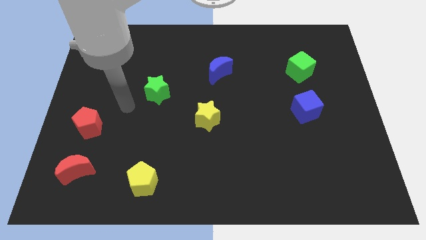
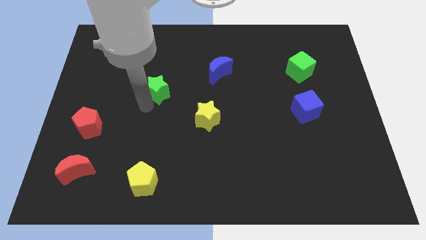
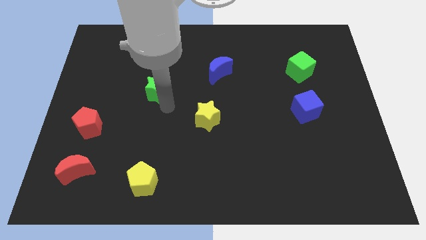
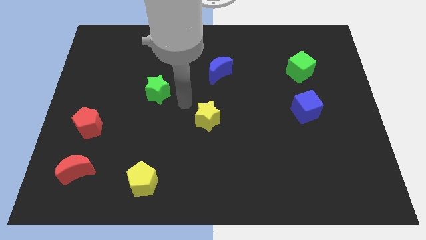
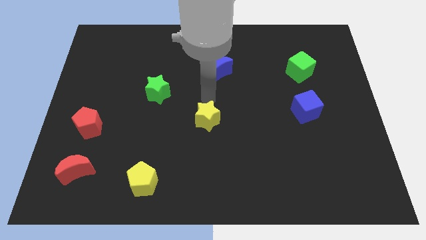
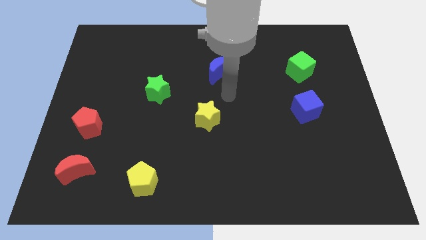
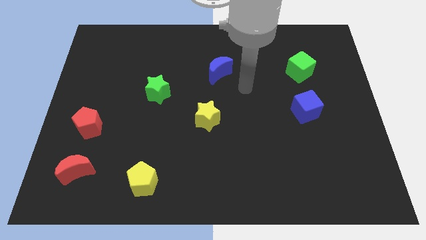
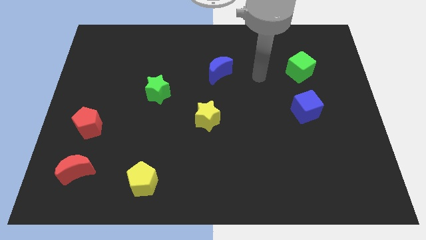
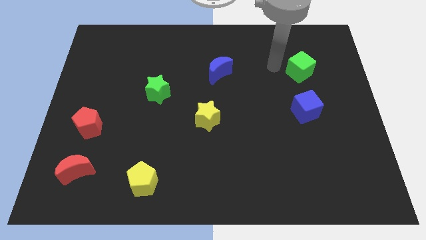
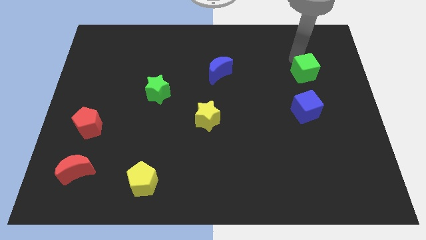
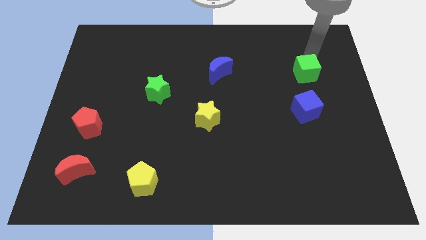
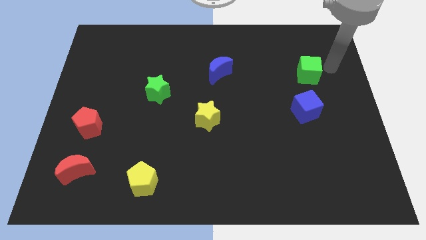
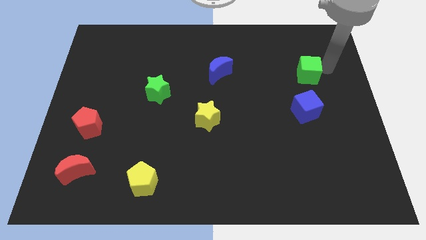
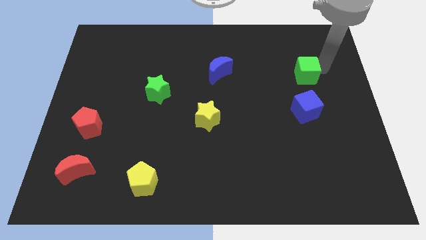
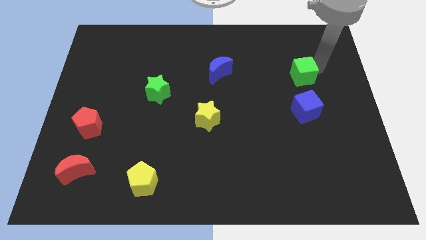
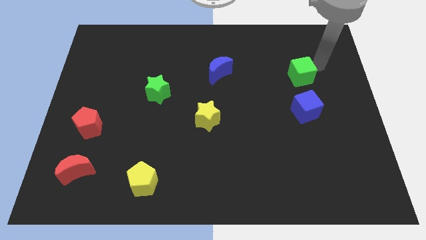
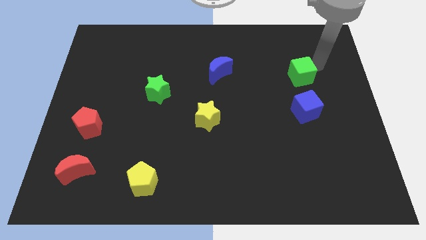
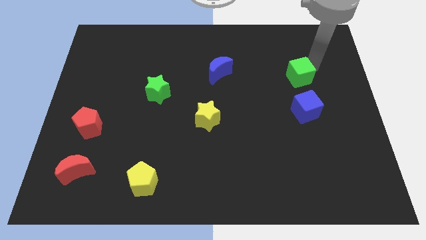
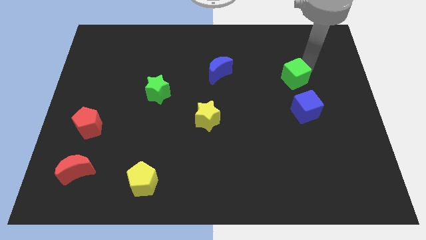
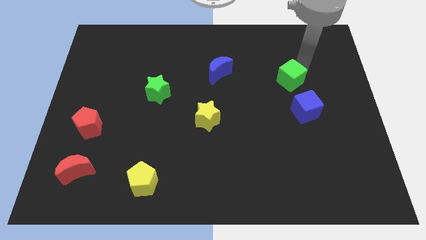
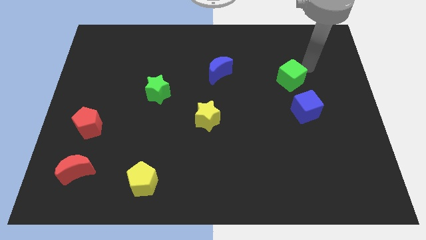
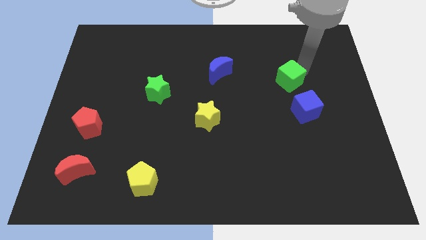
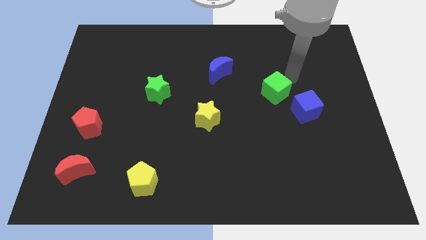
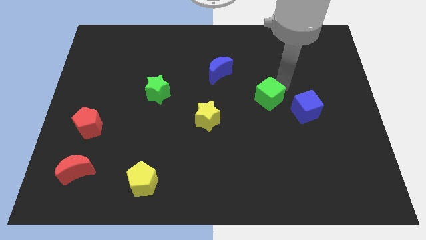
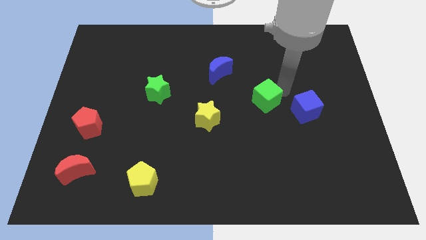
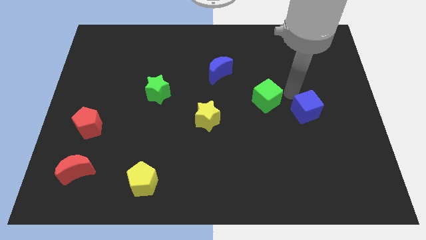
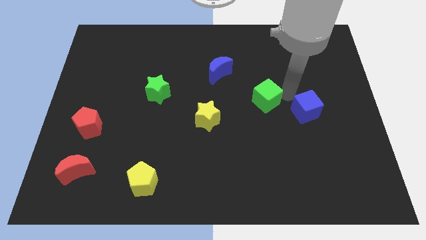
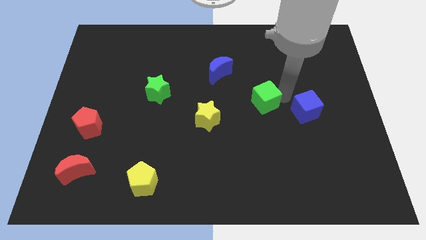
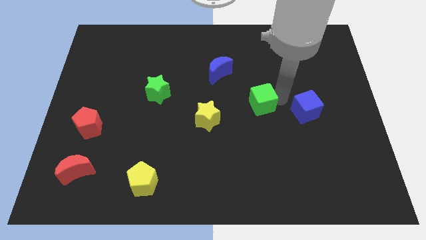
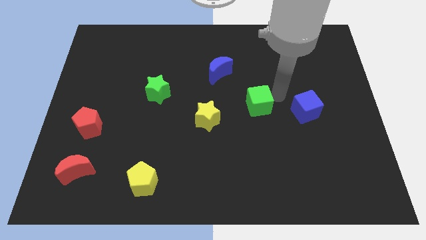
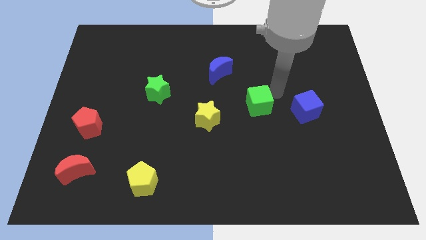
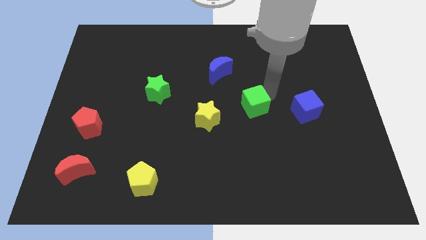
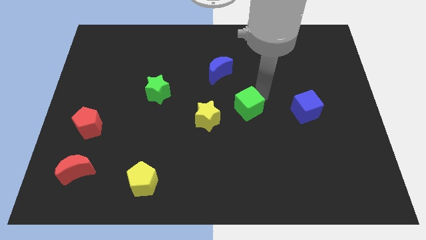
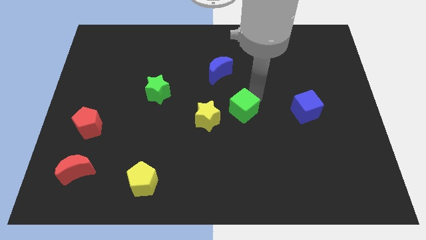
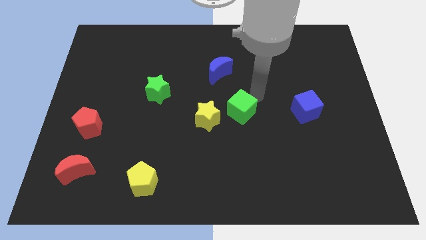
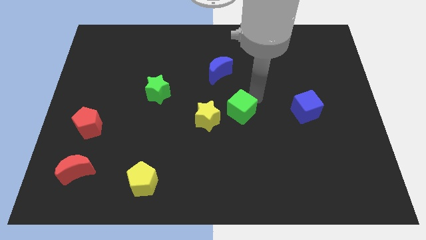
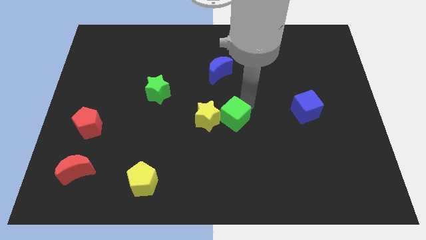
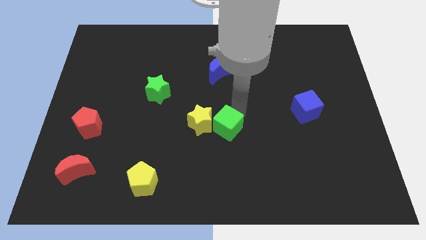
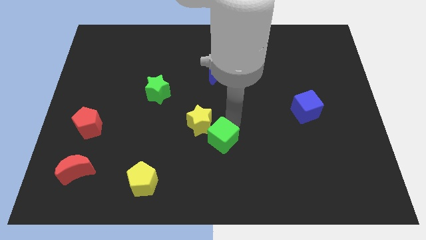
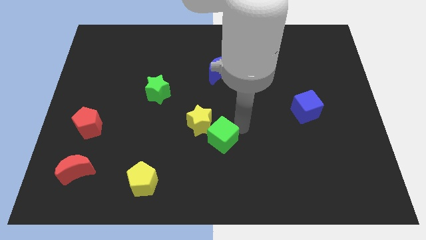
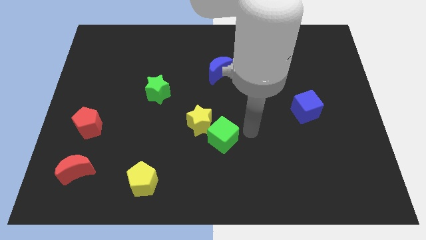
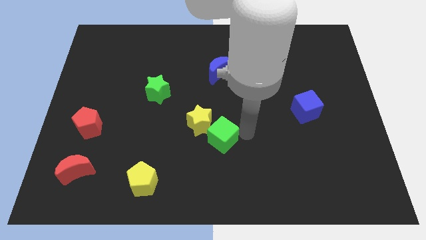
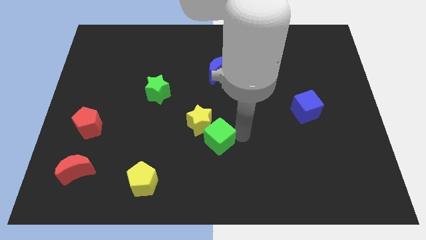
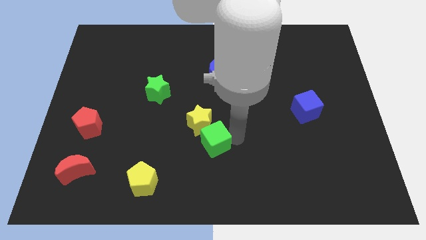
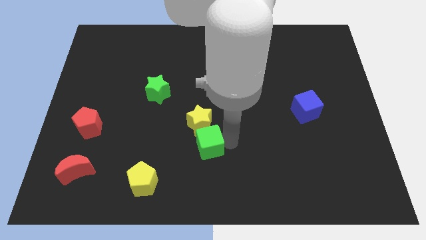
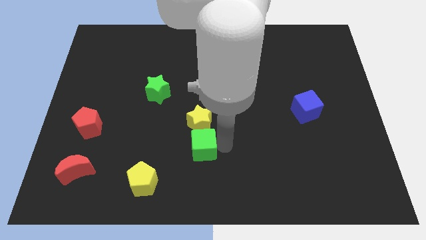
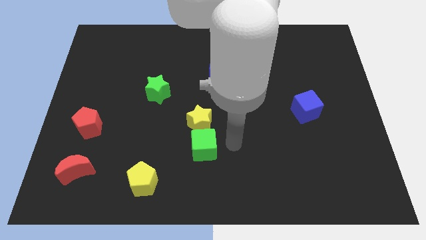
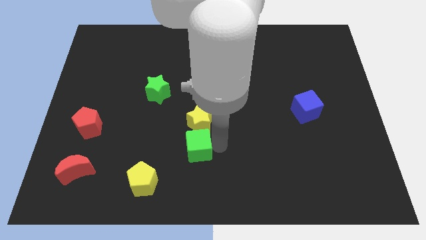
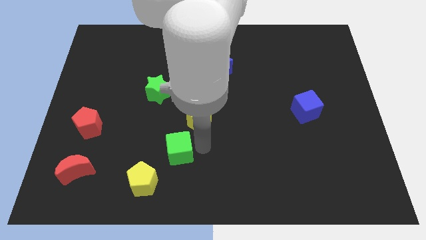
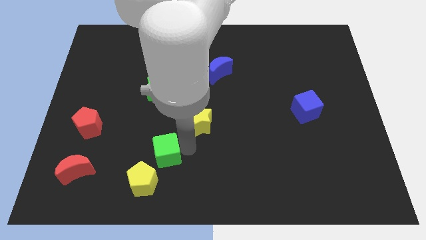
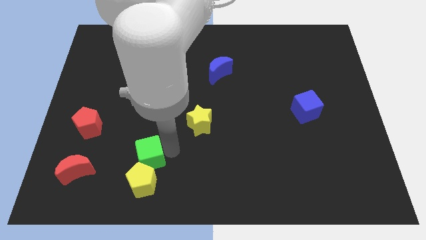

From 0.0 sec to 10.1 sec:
slide the green cube to the right side of the red moon

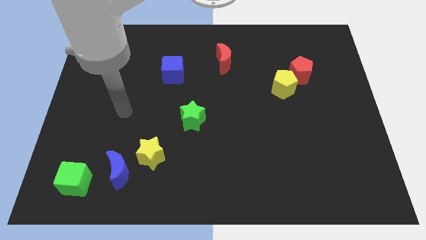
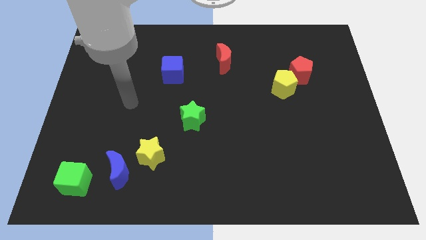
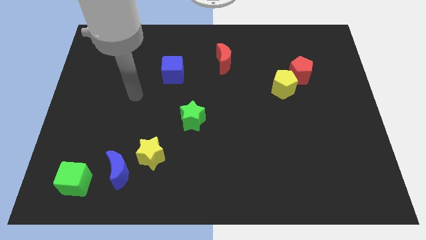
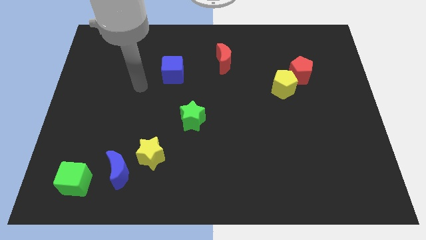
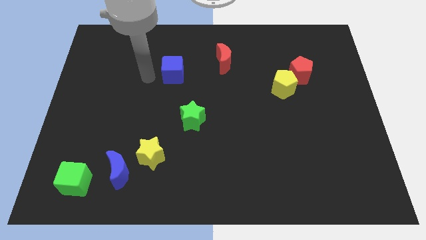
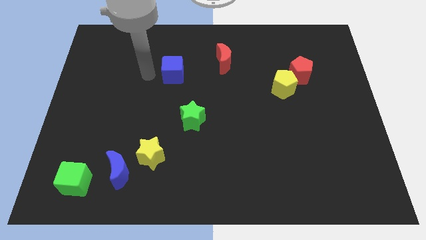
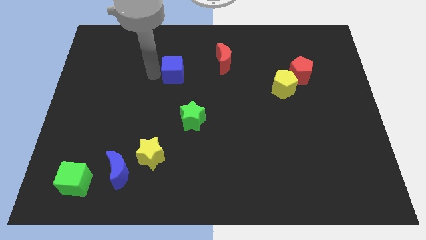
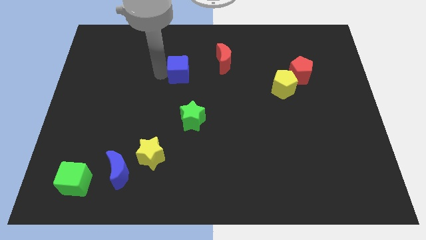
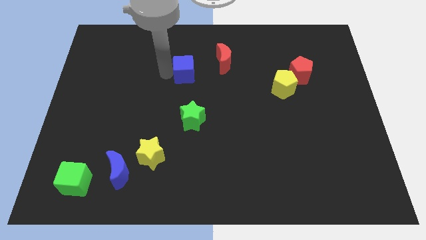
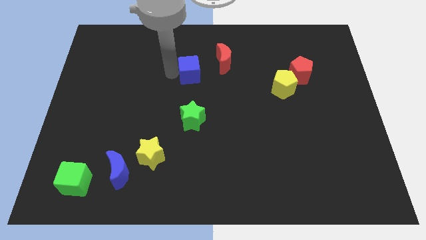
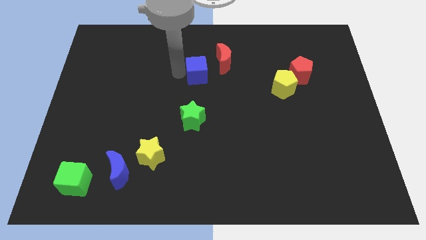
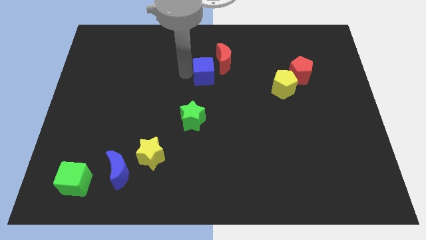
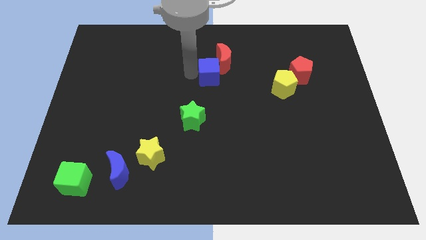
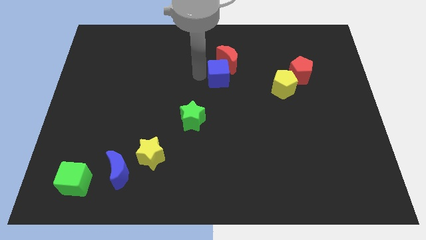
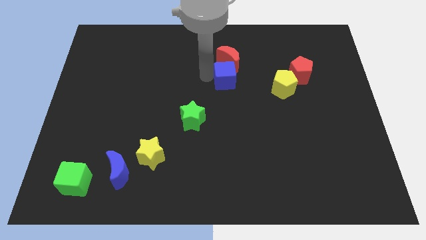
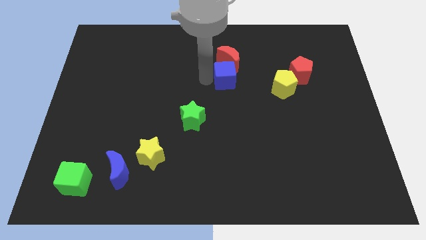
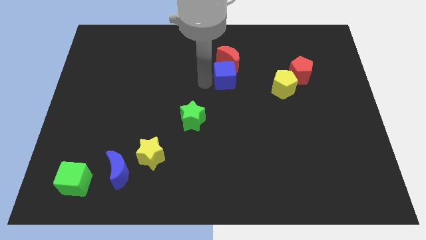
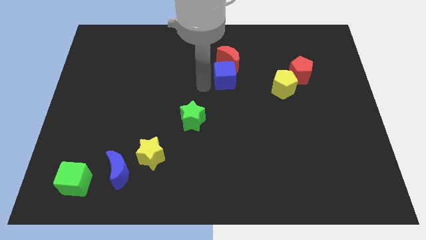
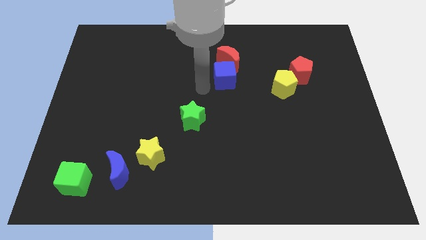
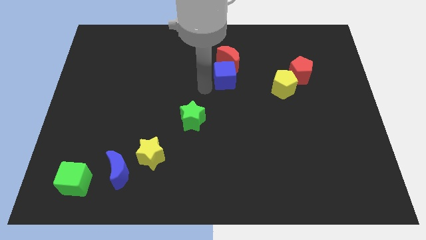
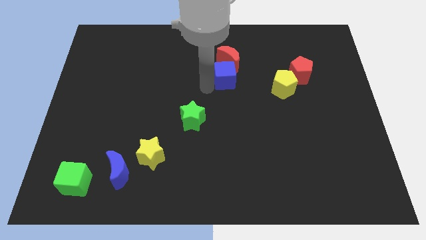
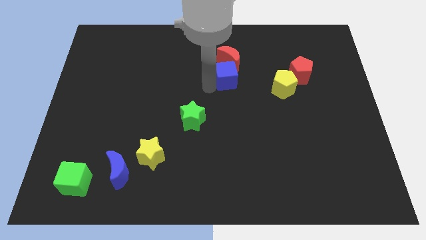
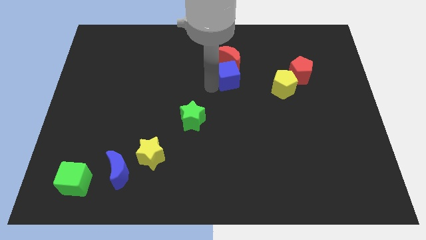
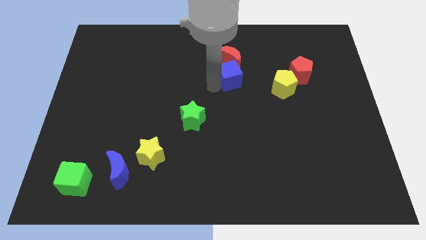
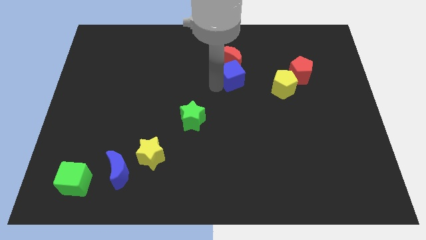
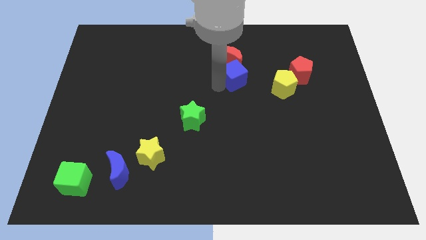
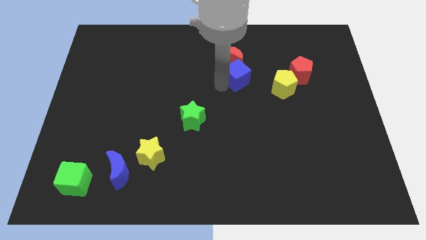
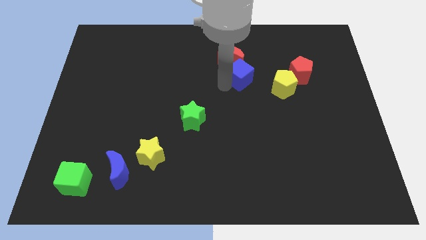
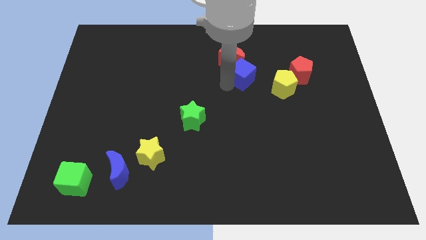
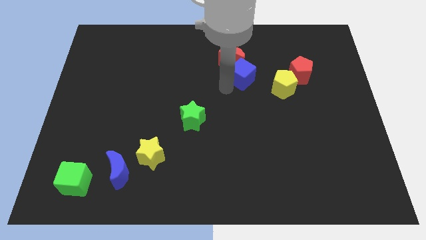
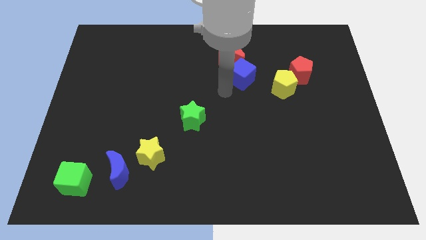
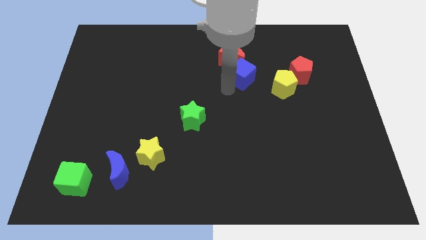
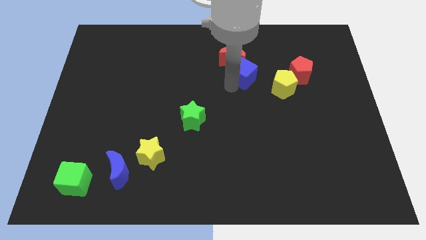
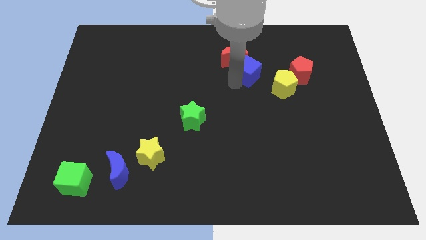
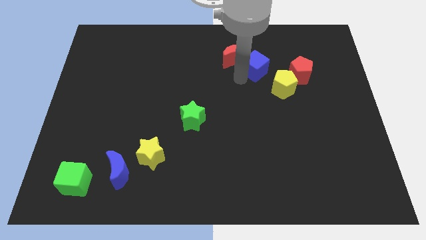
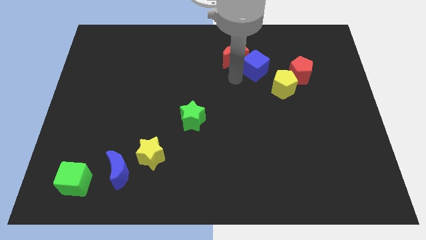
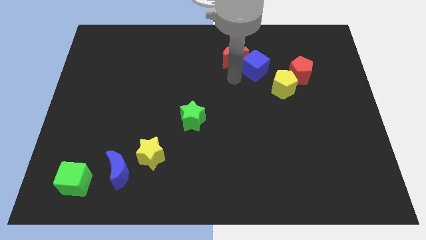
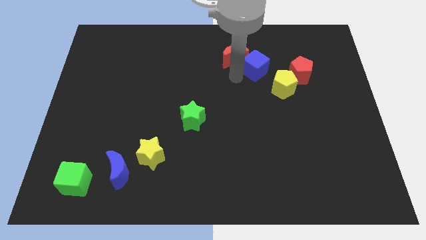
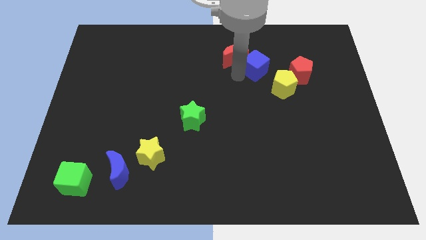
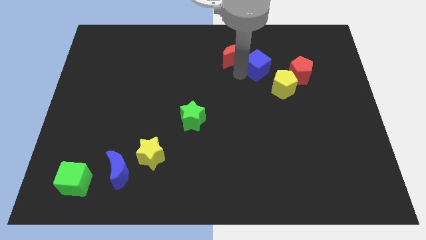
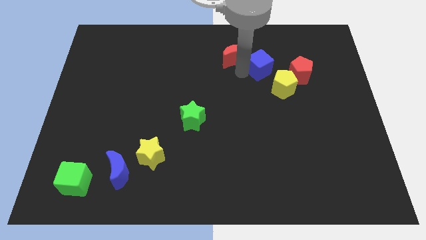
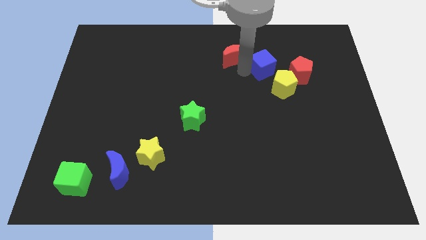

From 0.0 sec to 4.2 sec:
slide the blue cube above the yellow pentagon
